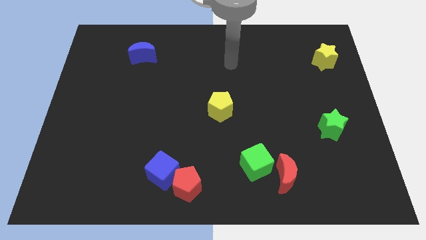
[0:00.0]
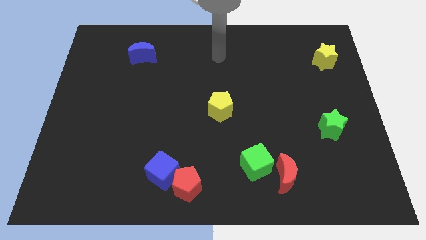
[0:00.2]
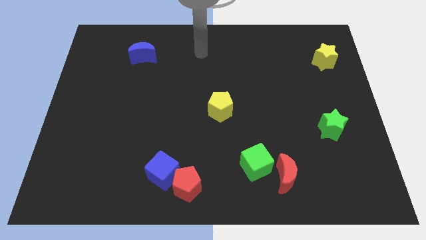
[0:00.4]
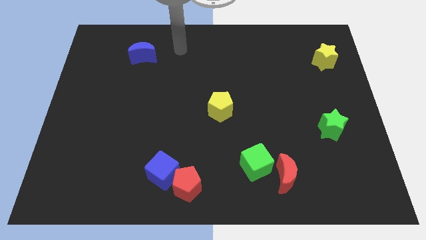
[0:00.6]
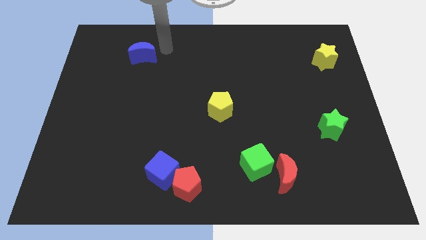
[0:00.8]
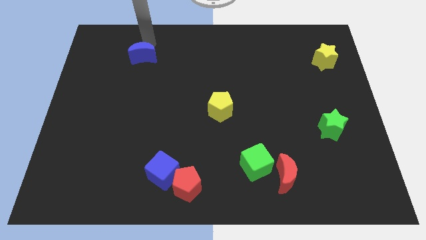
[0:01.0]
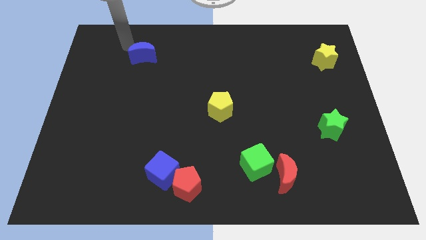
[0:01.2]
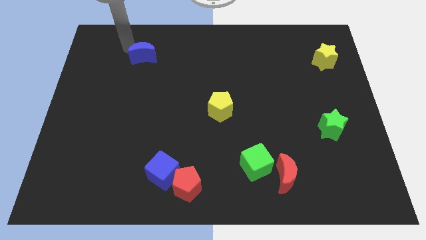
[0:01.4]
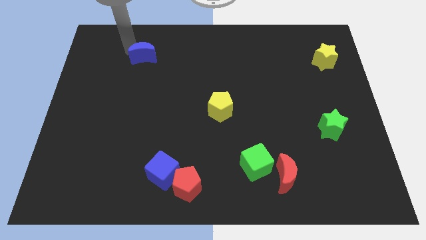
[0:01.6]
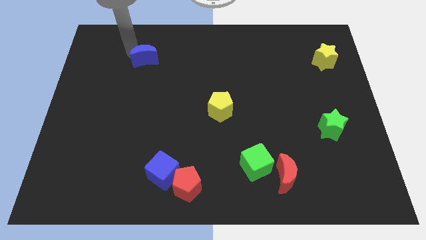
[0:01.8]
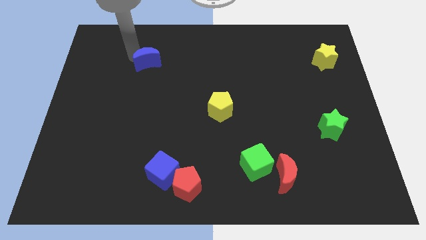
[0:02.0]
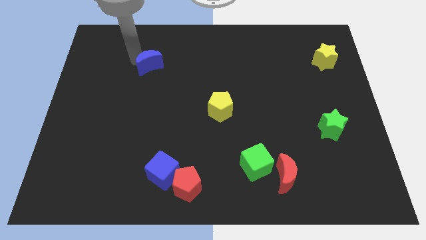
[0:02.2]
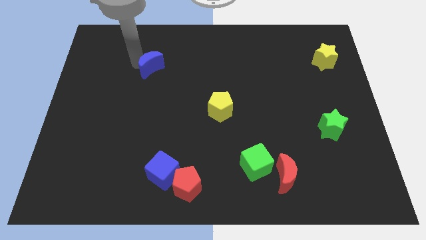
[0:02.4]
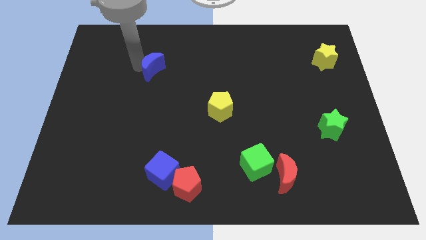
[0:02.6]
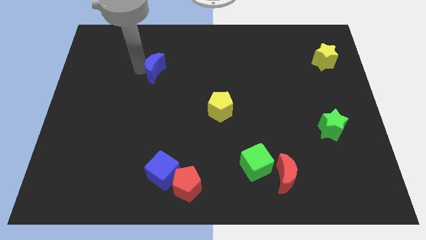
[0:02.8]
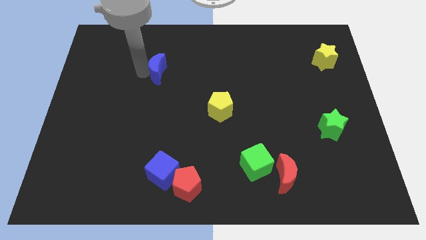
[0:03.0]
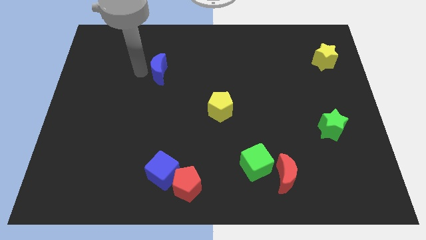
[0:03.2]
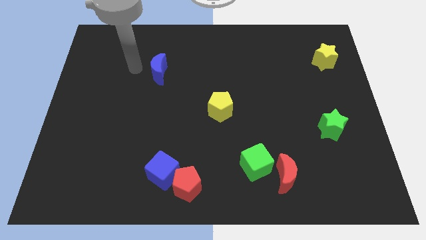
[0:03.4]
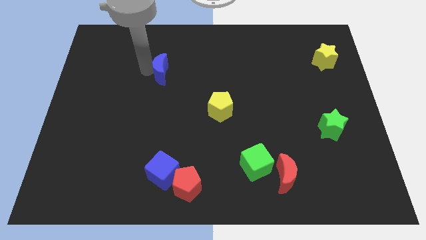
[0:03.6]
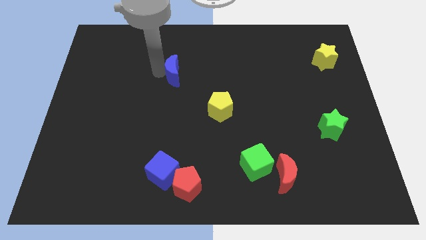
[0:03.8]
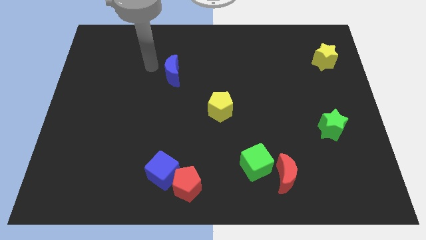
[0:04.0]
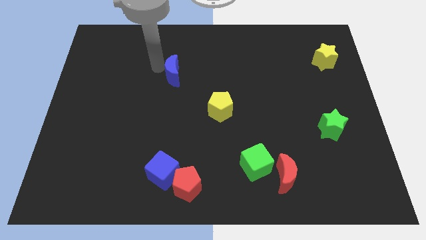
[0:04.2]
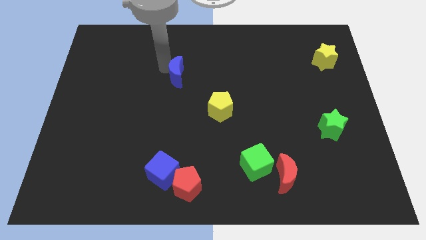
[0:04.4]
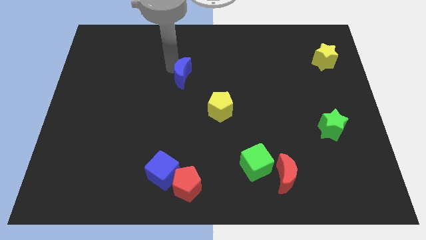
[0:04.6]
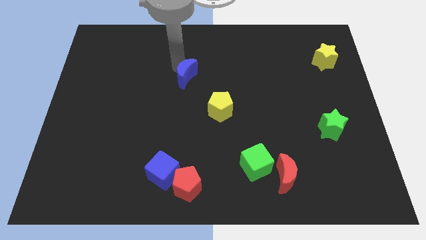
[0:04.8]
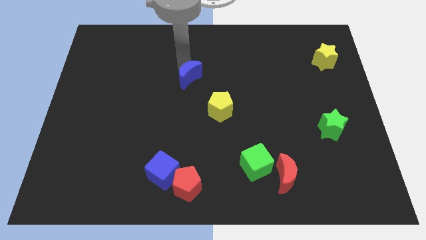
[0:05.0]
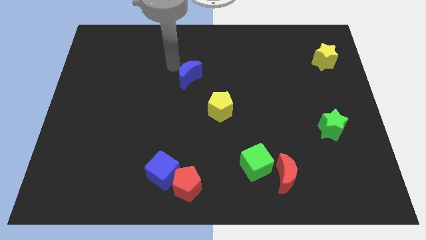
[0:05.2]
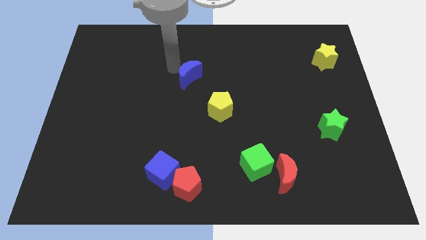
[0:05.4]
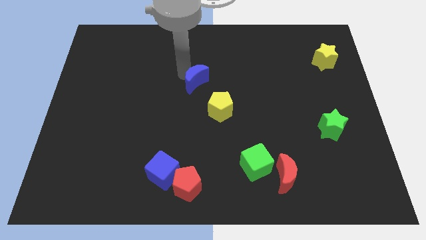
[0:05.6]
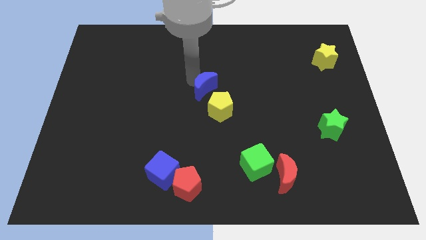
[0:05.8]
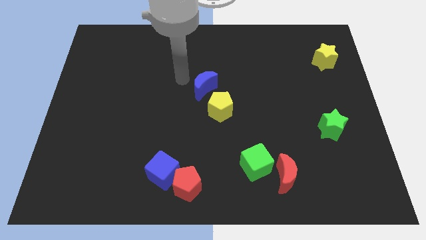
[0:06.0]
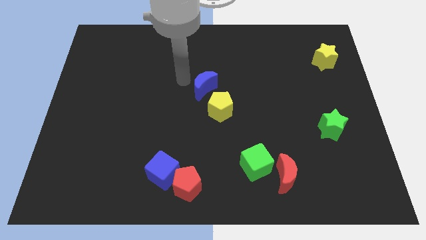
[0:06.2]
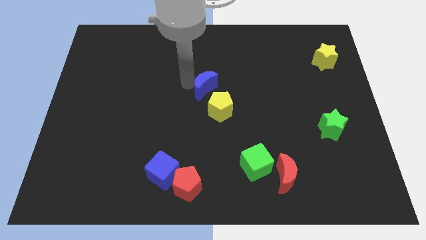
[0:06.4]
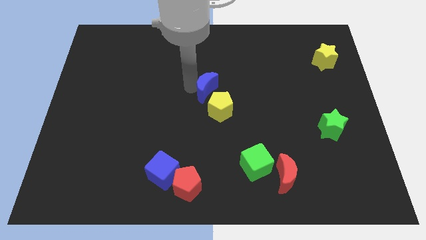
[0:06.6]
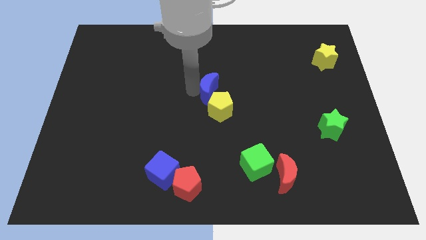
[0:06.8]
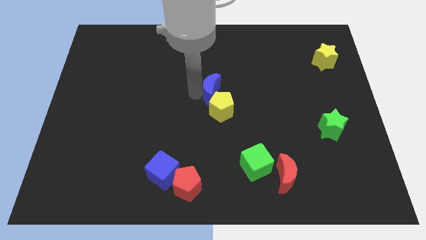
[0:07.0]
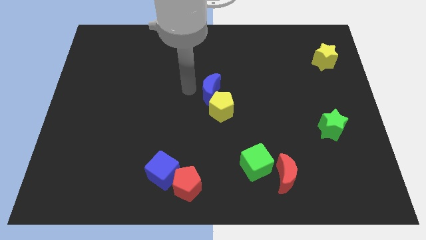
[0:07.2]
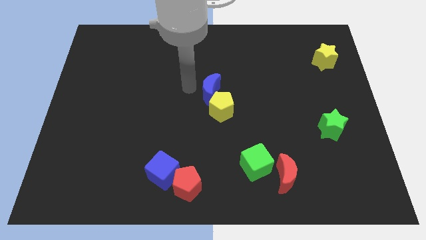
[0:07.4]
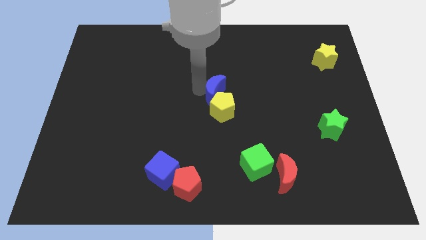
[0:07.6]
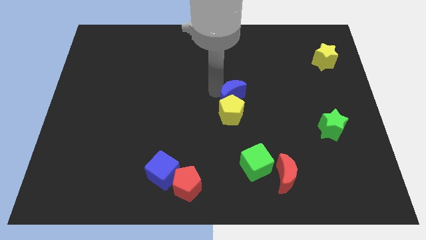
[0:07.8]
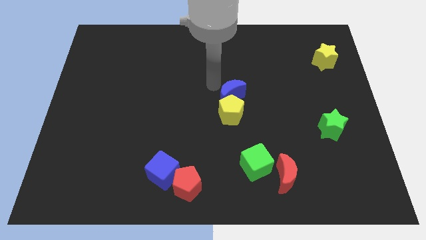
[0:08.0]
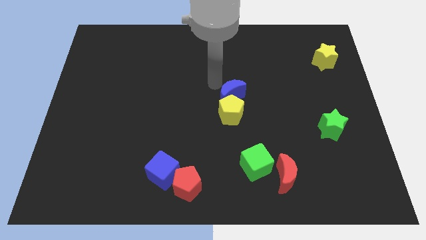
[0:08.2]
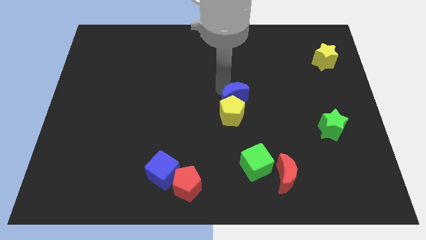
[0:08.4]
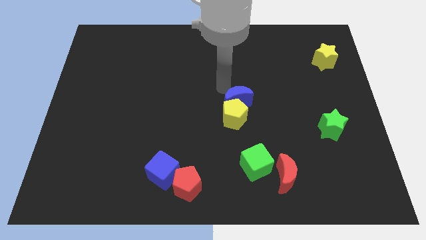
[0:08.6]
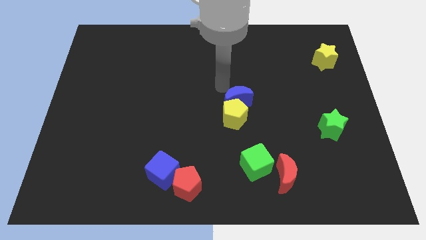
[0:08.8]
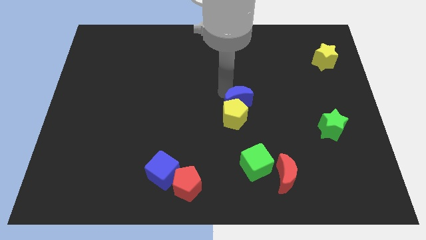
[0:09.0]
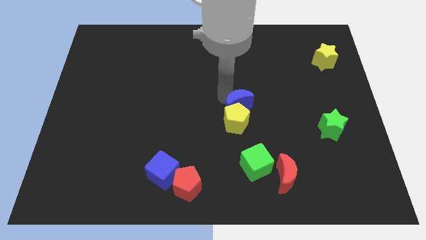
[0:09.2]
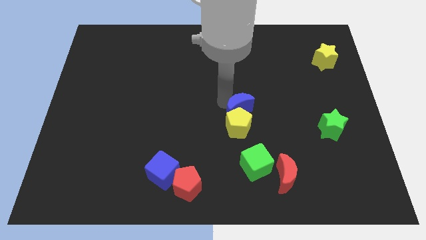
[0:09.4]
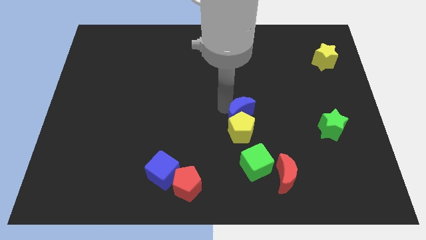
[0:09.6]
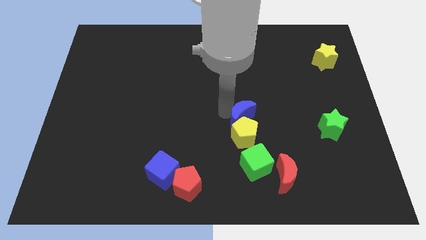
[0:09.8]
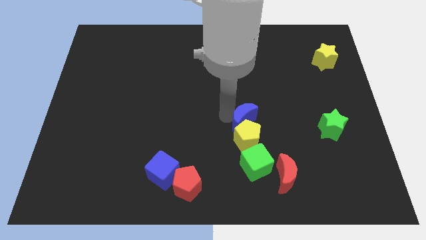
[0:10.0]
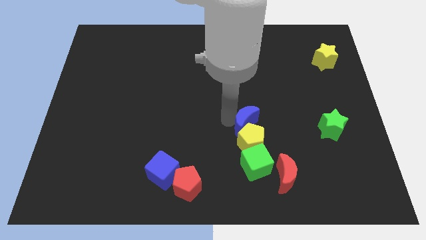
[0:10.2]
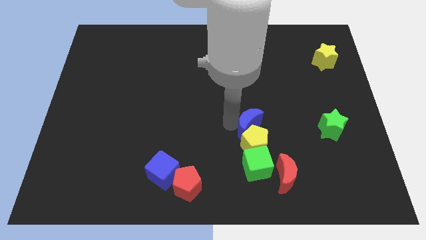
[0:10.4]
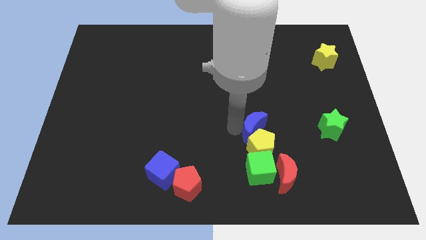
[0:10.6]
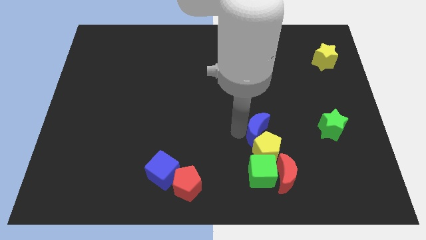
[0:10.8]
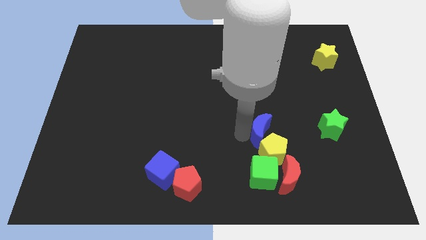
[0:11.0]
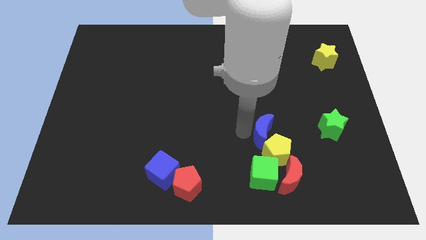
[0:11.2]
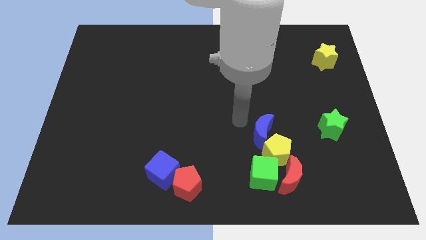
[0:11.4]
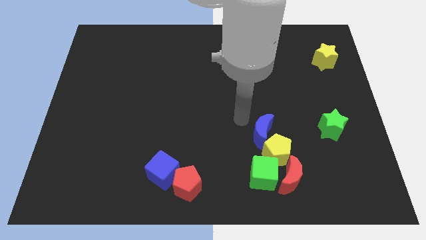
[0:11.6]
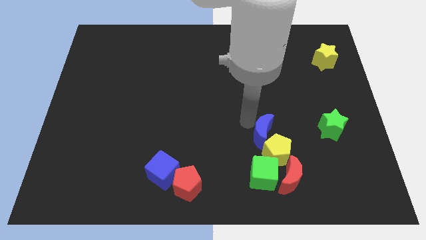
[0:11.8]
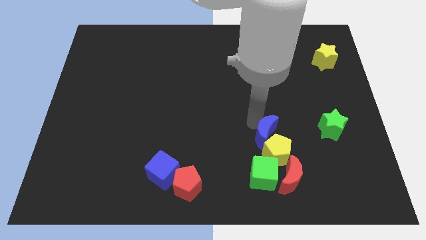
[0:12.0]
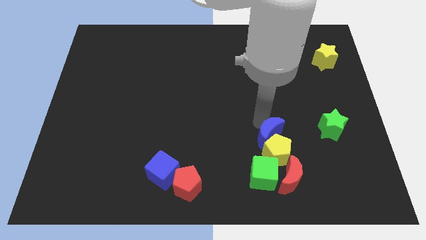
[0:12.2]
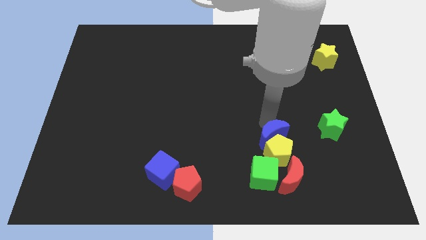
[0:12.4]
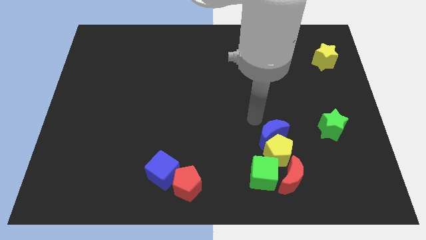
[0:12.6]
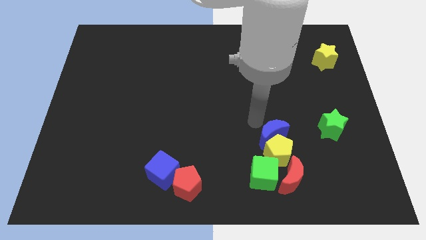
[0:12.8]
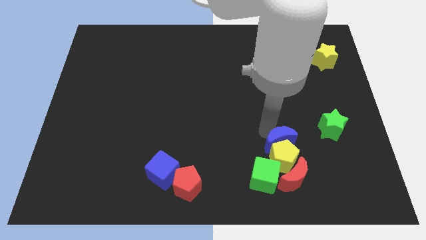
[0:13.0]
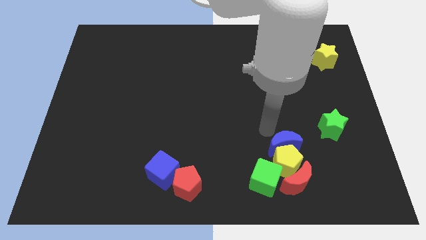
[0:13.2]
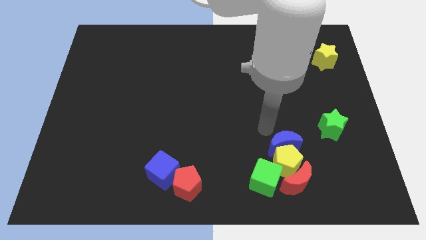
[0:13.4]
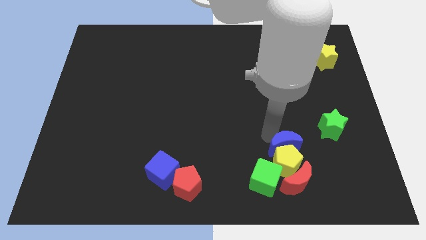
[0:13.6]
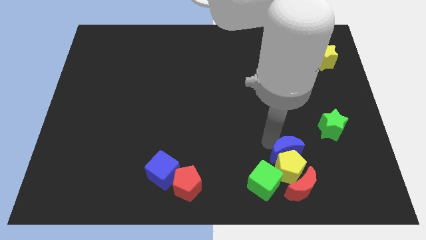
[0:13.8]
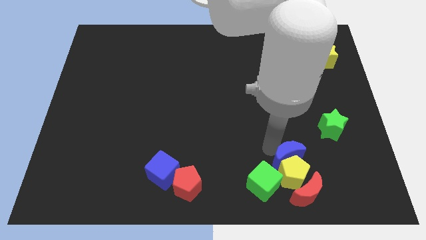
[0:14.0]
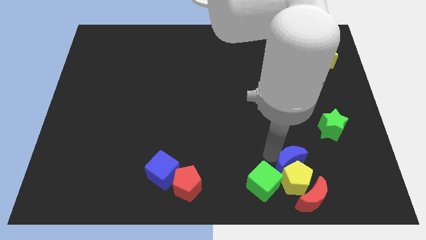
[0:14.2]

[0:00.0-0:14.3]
slide the blue moon to the right of the green cube
